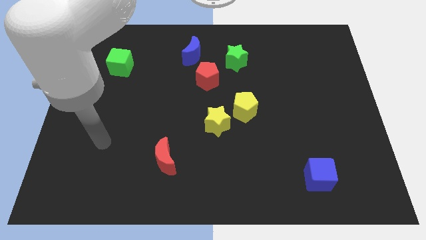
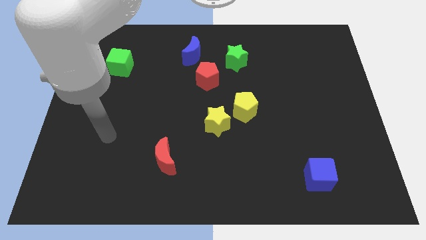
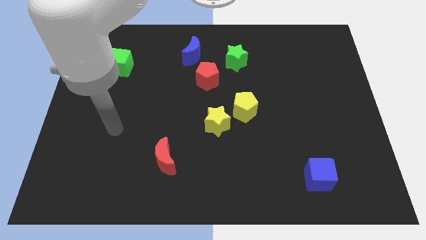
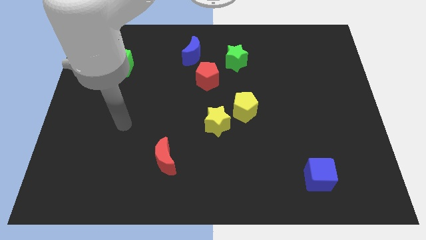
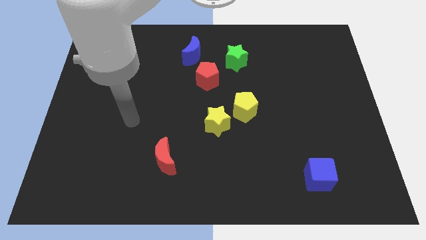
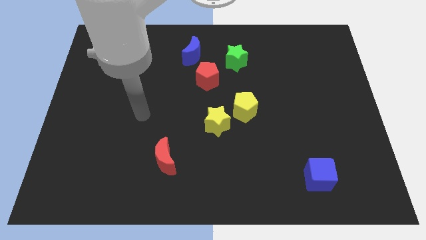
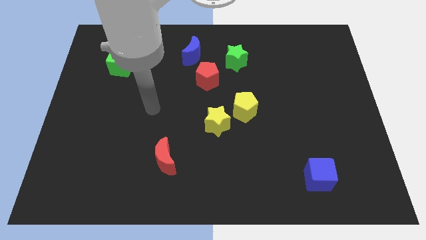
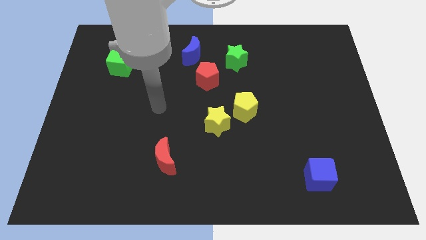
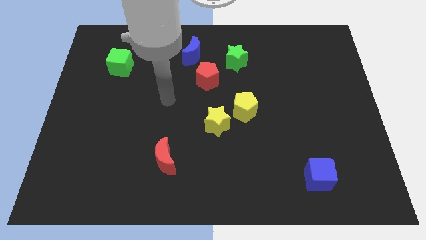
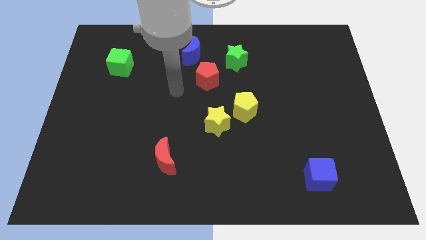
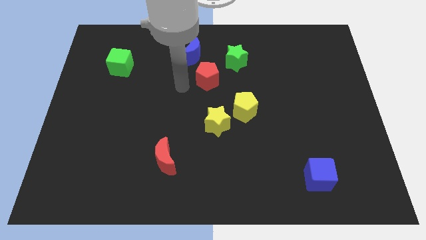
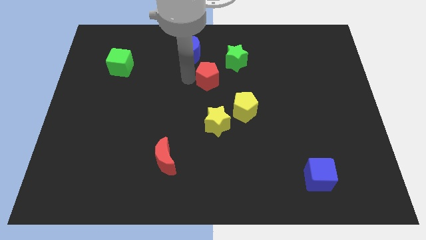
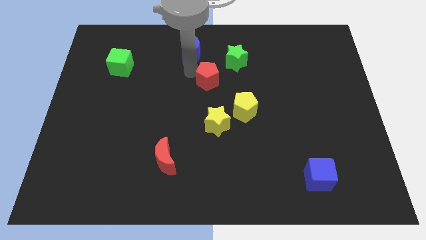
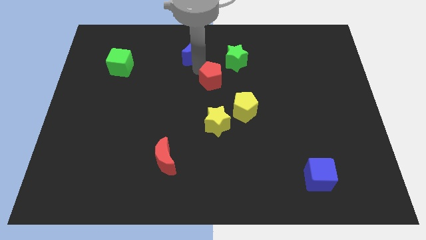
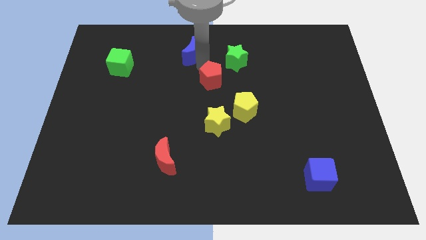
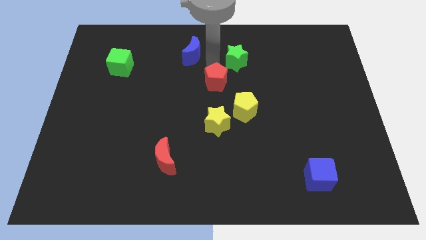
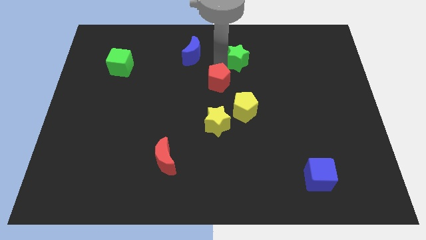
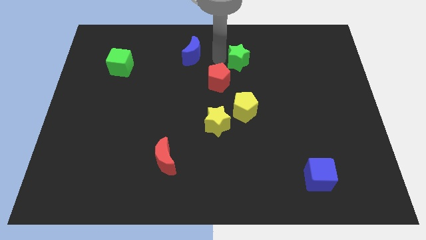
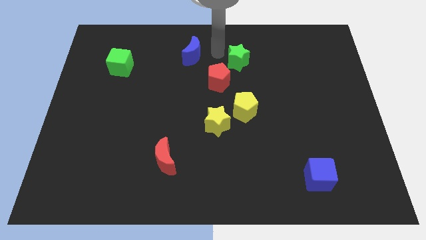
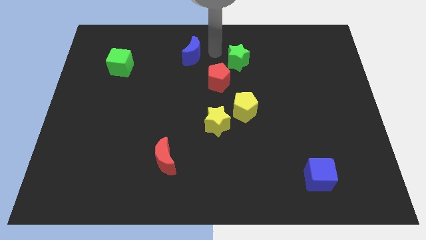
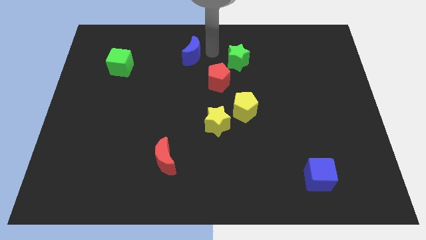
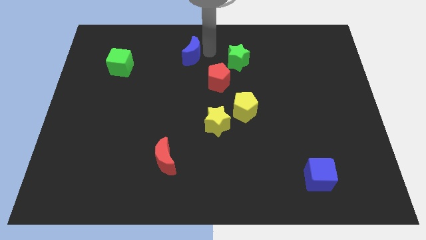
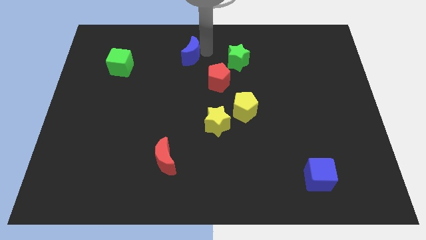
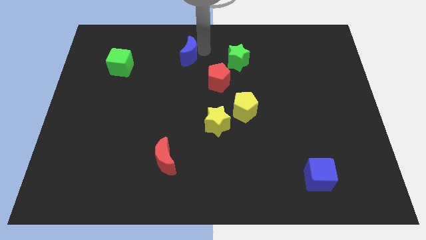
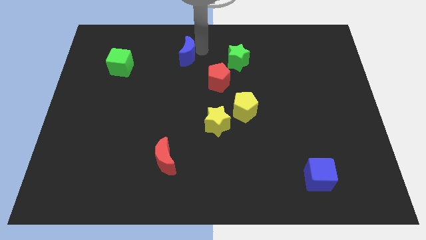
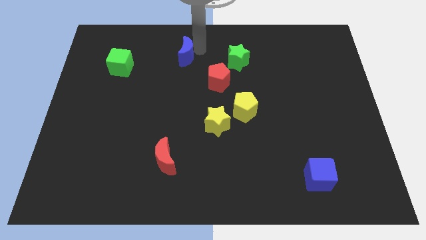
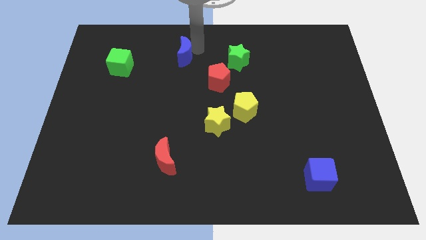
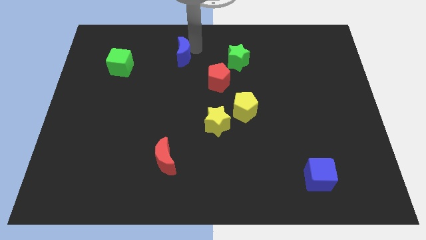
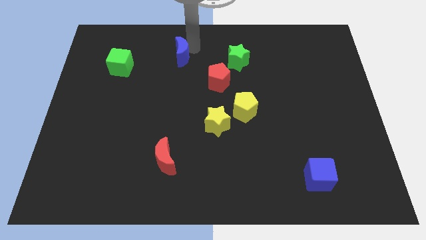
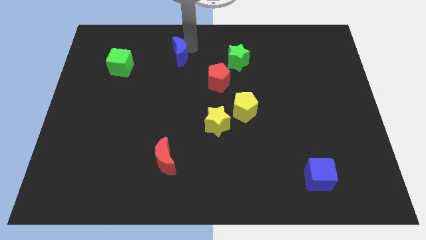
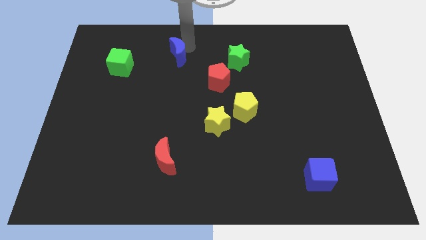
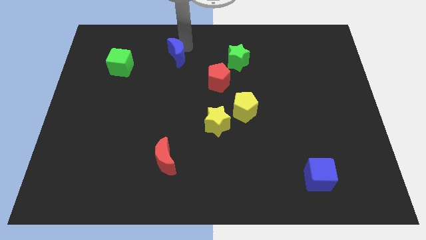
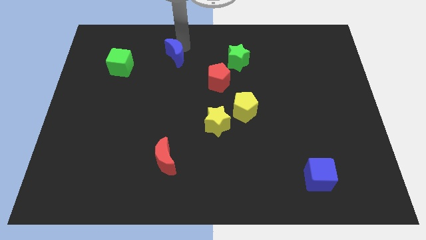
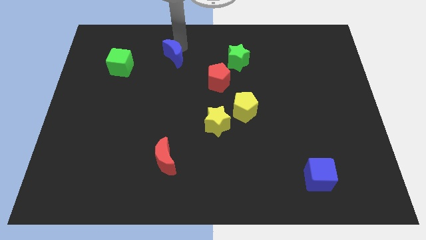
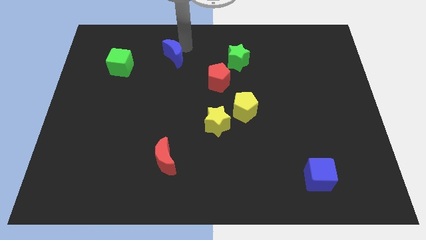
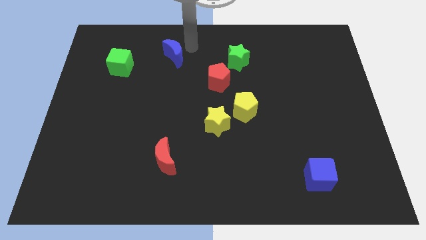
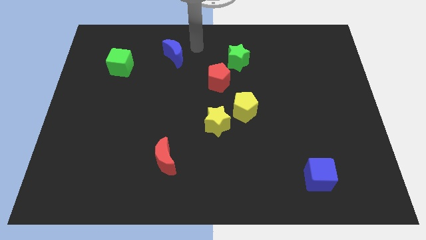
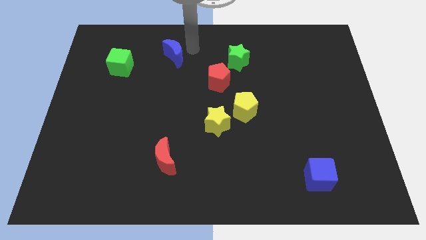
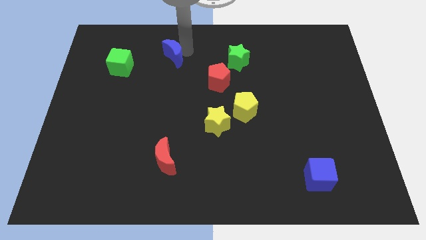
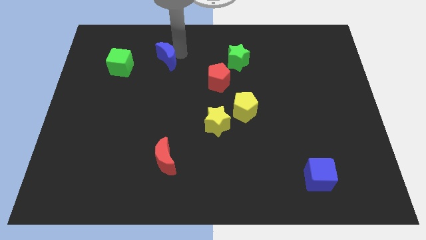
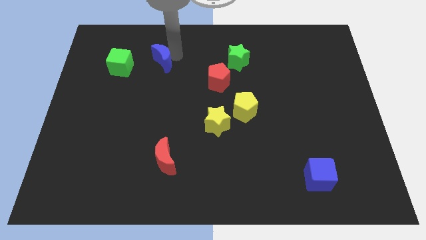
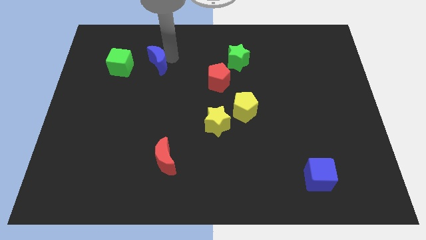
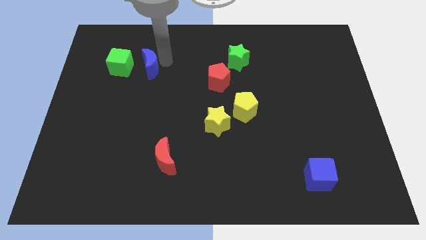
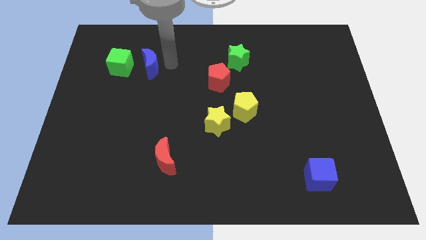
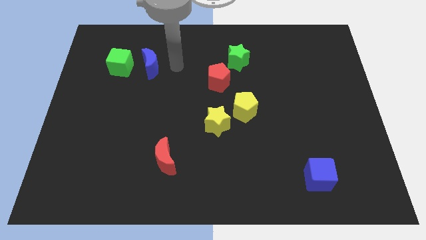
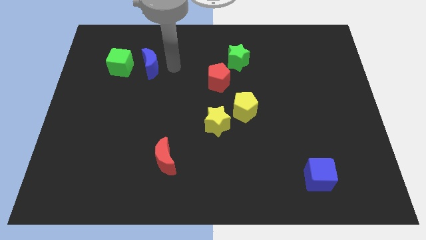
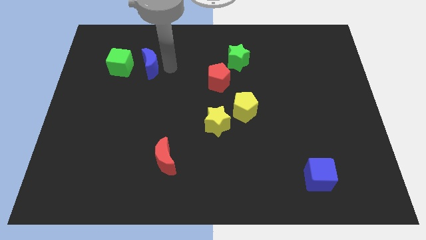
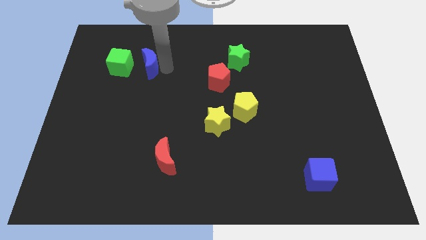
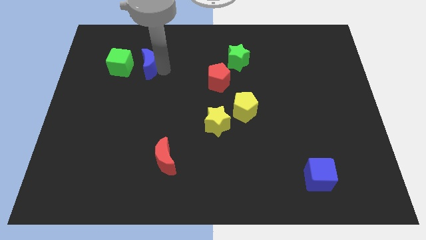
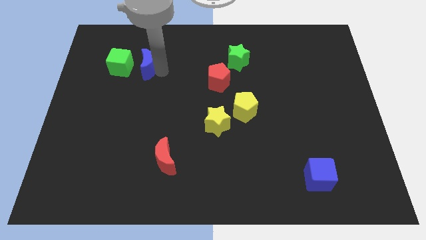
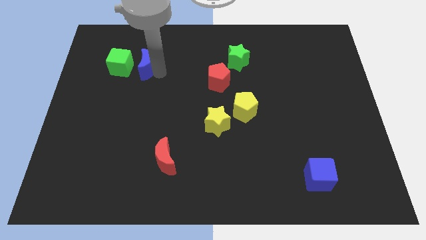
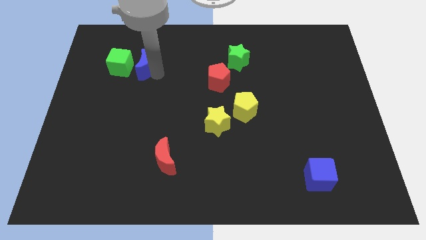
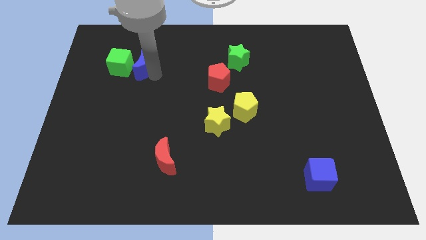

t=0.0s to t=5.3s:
push the blue moon to the green cube
